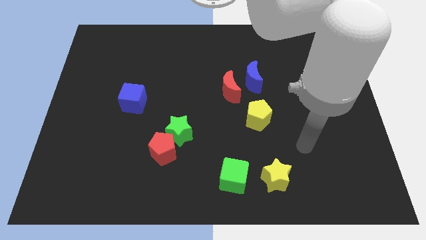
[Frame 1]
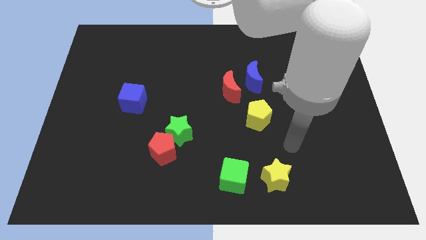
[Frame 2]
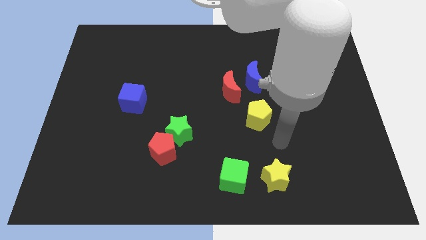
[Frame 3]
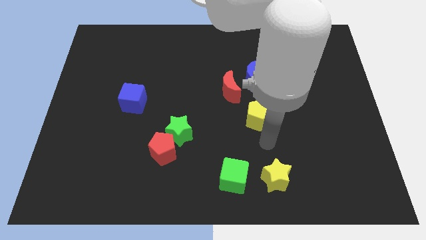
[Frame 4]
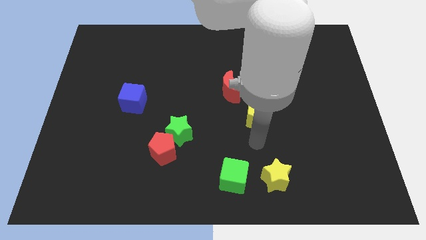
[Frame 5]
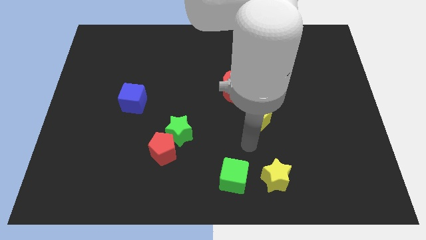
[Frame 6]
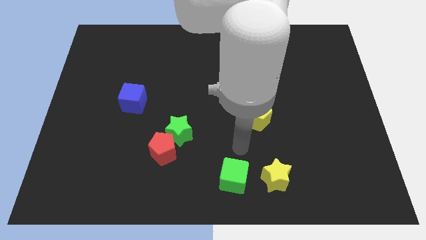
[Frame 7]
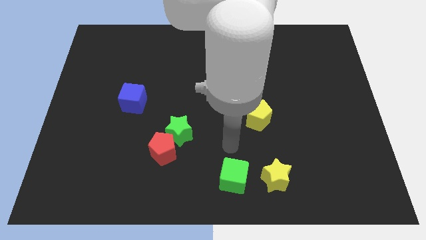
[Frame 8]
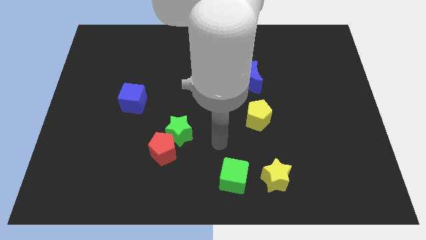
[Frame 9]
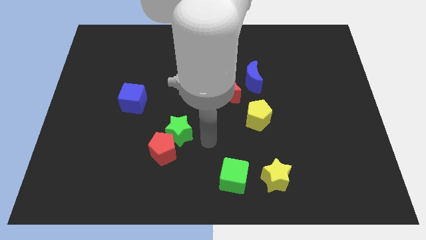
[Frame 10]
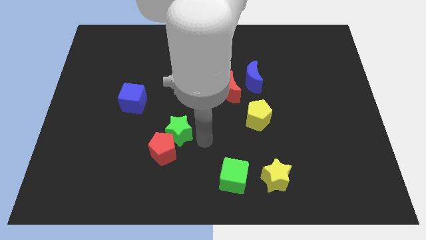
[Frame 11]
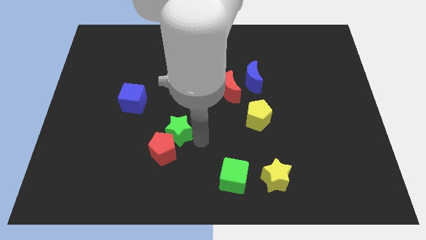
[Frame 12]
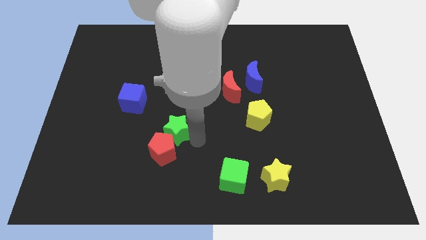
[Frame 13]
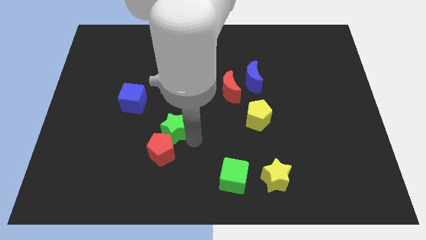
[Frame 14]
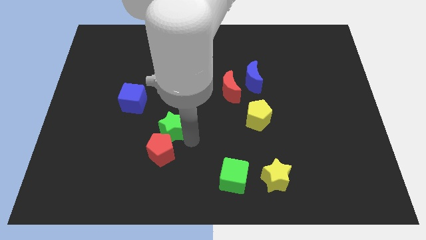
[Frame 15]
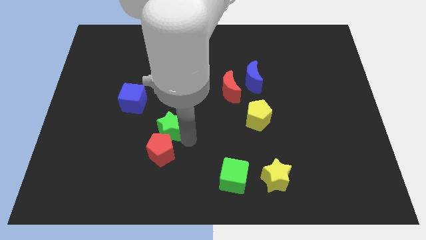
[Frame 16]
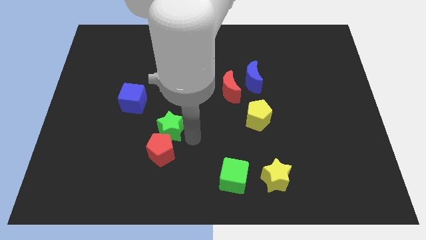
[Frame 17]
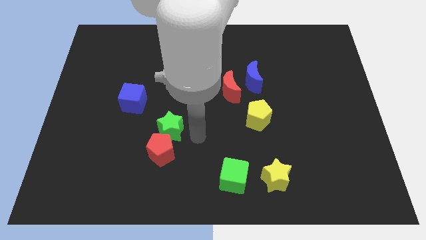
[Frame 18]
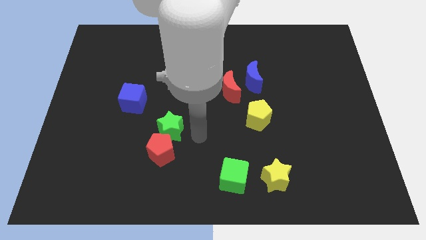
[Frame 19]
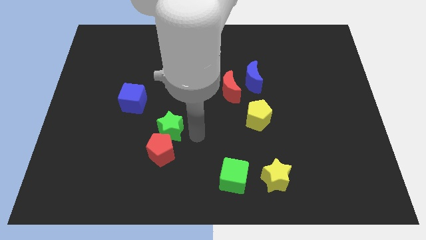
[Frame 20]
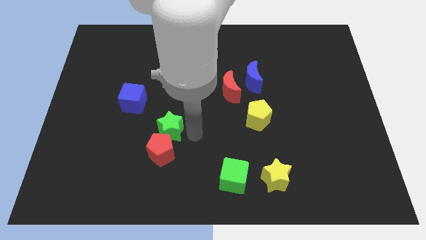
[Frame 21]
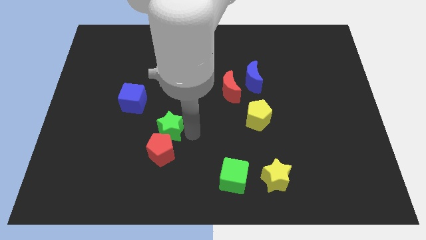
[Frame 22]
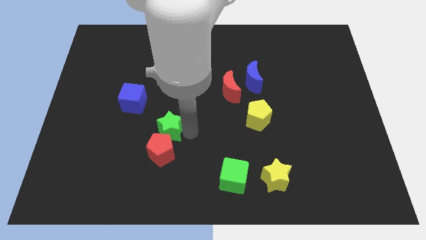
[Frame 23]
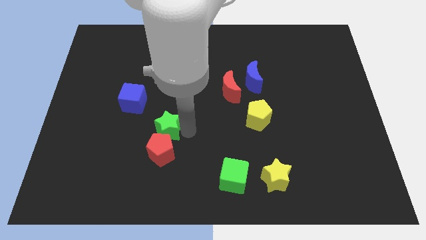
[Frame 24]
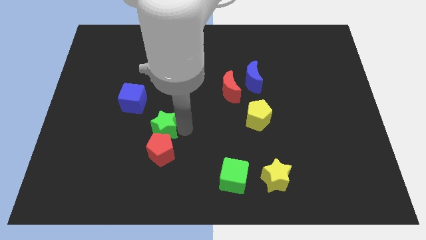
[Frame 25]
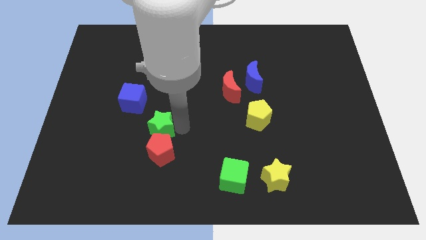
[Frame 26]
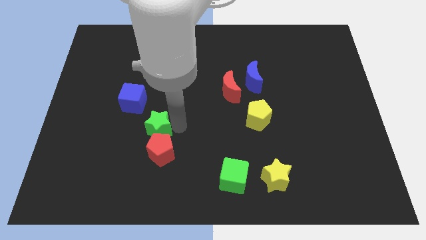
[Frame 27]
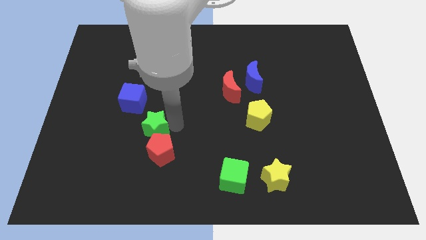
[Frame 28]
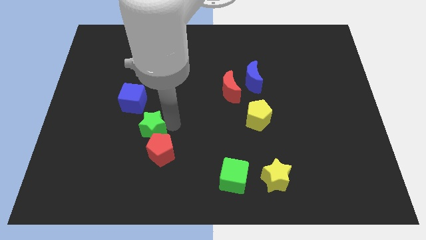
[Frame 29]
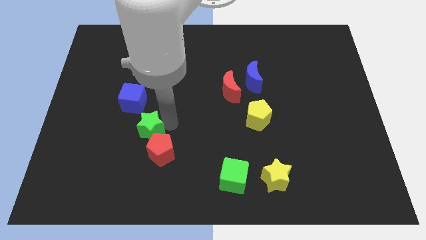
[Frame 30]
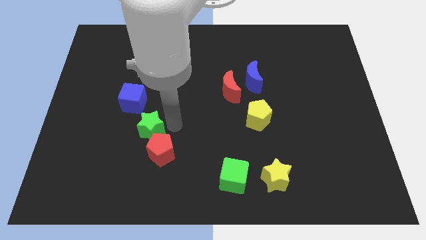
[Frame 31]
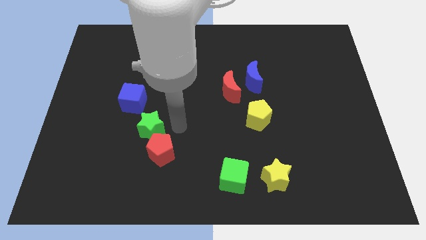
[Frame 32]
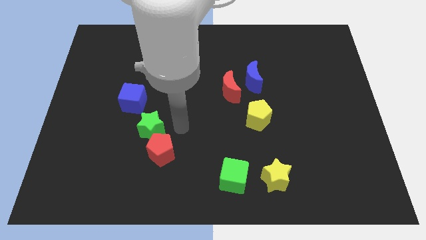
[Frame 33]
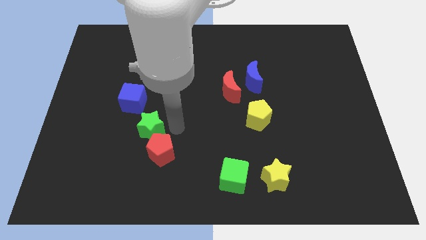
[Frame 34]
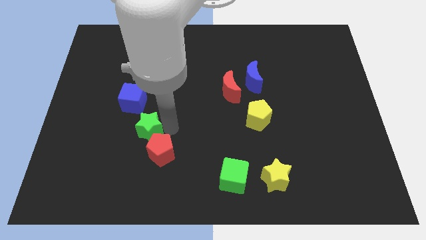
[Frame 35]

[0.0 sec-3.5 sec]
slide the green star slightly to the left

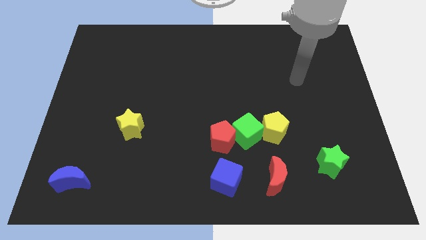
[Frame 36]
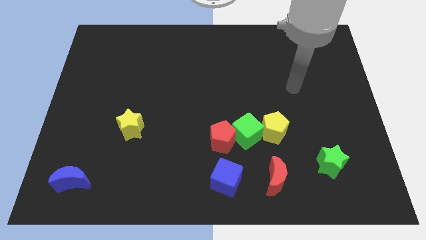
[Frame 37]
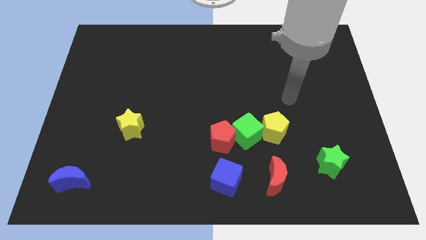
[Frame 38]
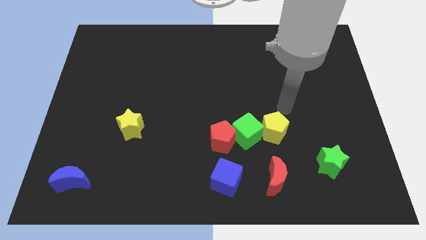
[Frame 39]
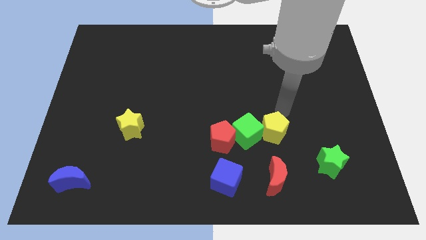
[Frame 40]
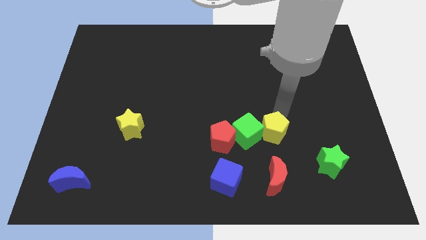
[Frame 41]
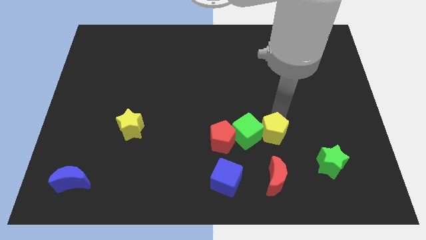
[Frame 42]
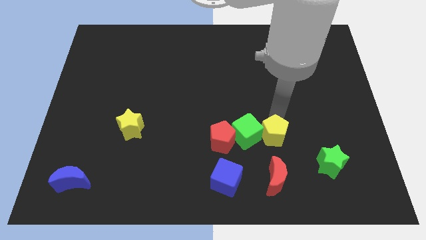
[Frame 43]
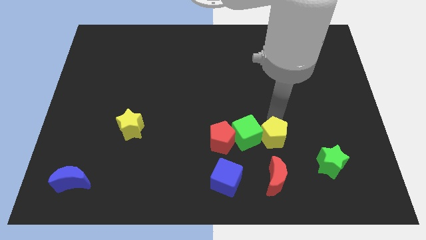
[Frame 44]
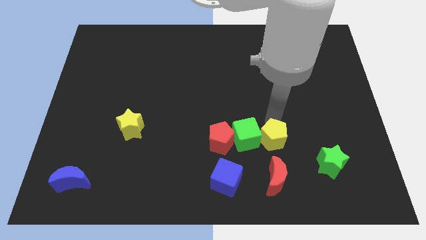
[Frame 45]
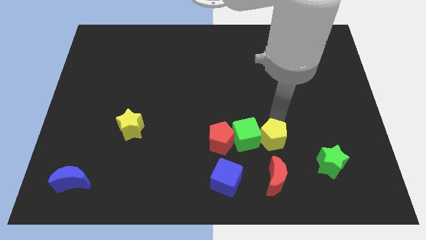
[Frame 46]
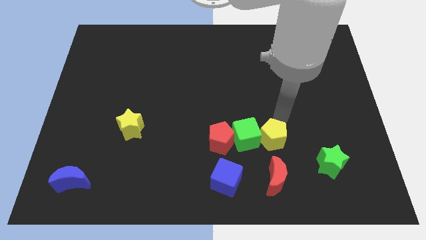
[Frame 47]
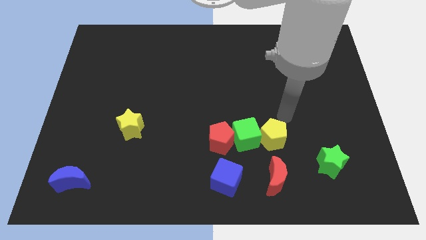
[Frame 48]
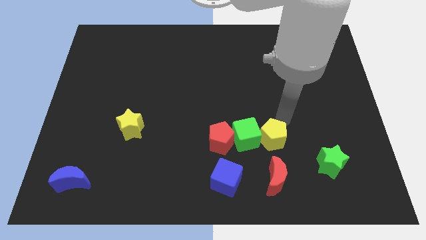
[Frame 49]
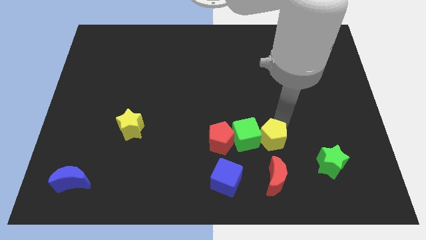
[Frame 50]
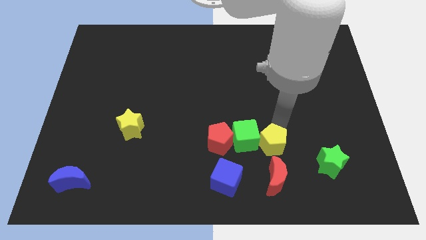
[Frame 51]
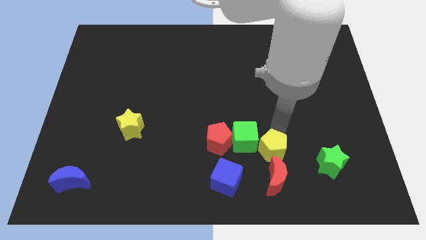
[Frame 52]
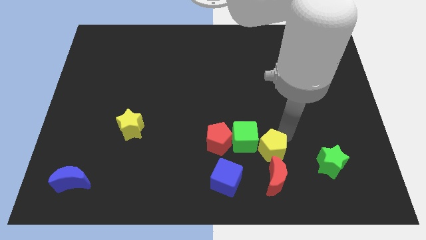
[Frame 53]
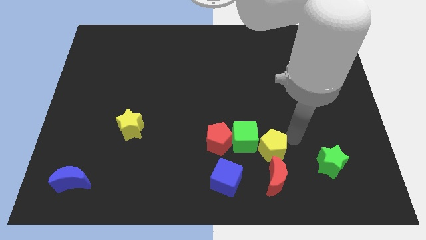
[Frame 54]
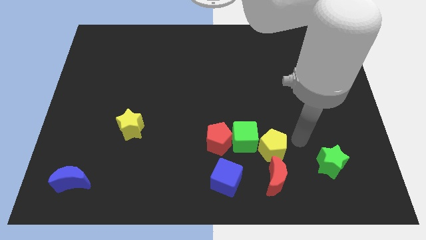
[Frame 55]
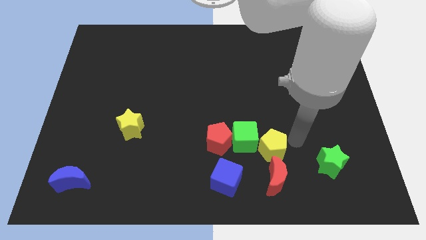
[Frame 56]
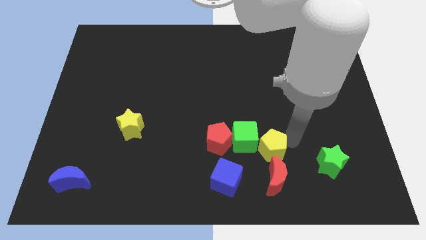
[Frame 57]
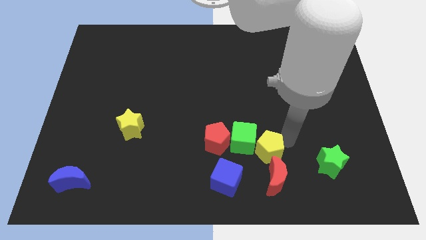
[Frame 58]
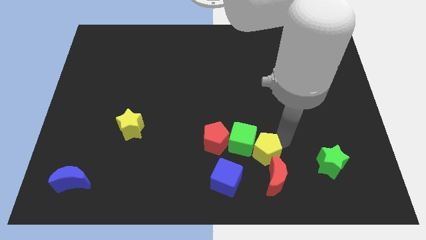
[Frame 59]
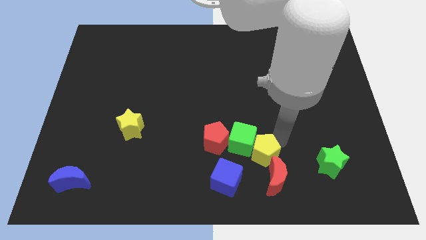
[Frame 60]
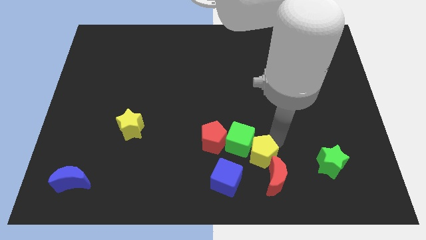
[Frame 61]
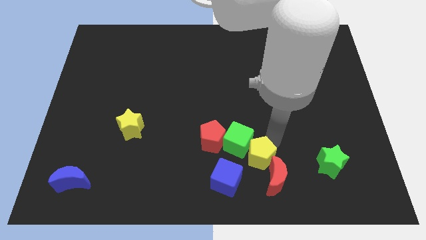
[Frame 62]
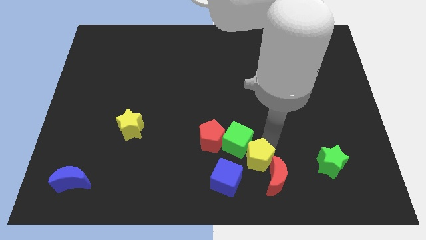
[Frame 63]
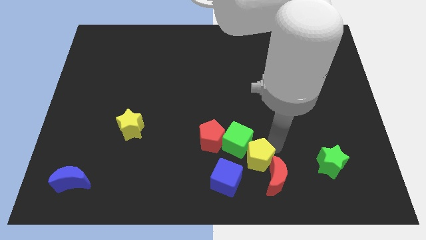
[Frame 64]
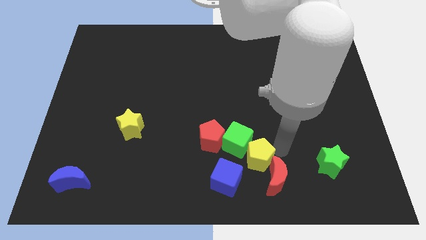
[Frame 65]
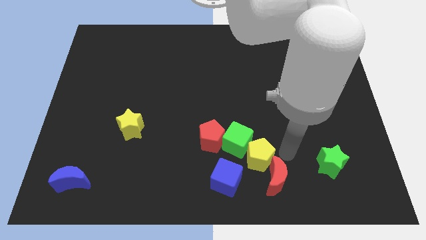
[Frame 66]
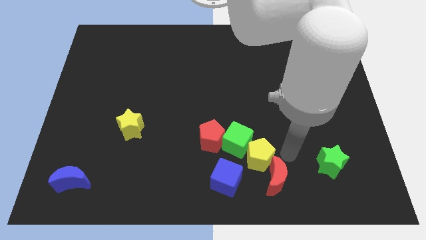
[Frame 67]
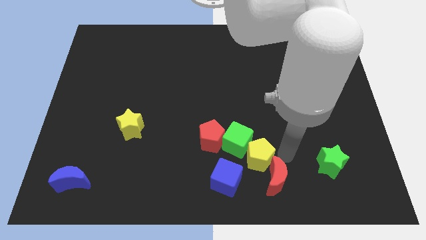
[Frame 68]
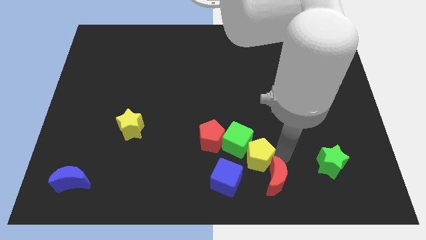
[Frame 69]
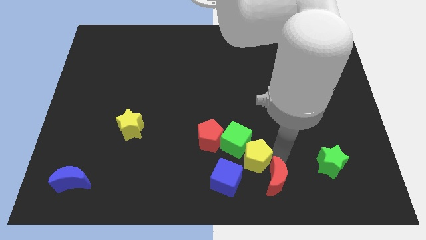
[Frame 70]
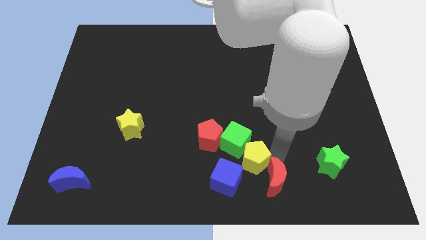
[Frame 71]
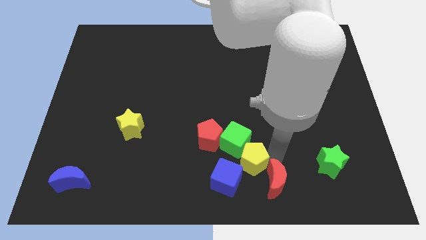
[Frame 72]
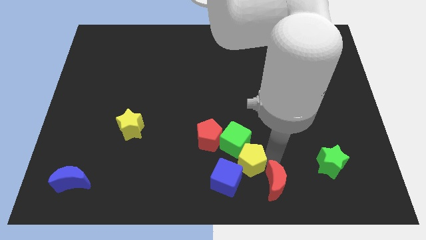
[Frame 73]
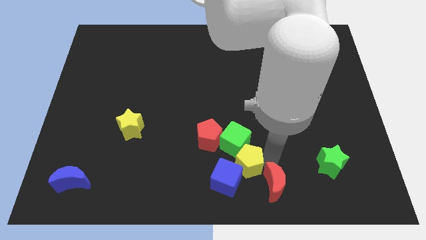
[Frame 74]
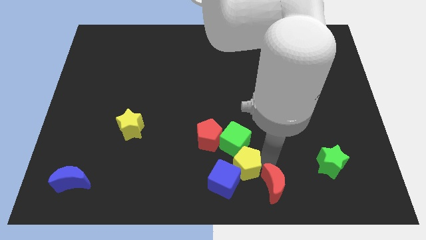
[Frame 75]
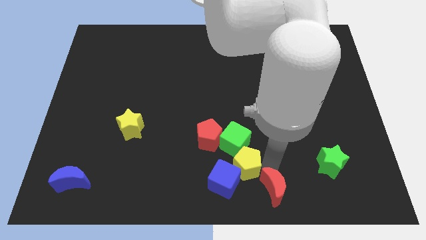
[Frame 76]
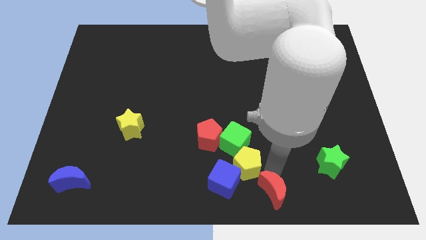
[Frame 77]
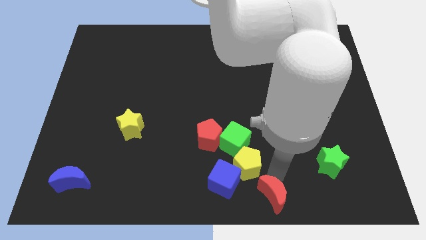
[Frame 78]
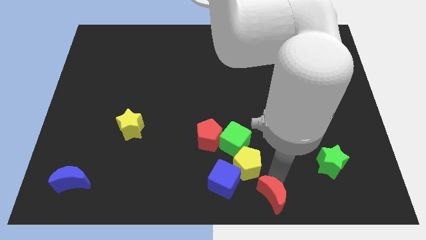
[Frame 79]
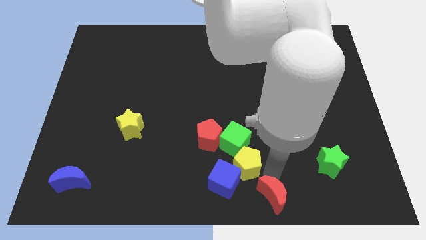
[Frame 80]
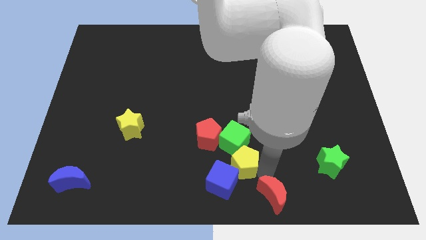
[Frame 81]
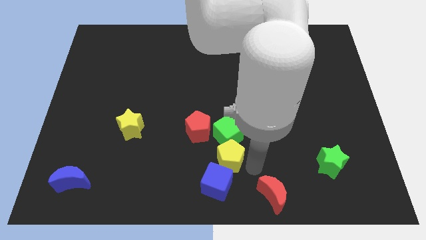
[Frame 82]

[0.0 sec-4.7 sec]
push the yellow pentagon a bit to the left
